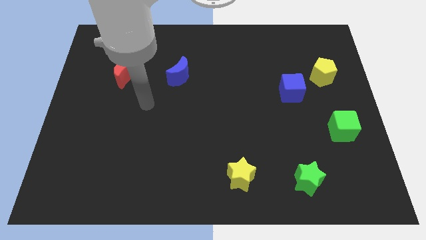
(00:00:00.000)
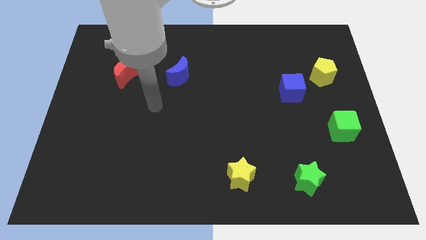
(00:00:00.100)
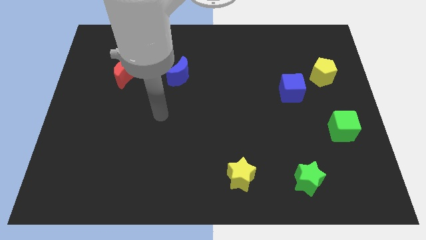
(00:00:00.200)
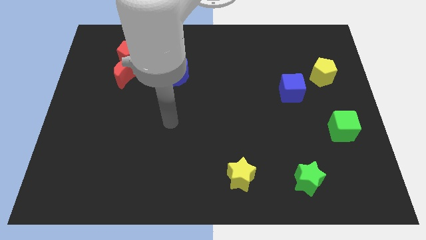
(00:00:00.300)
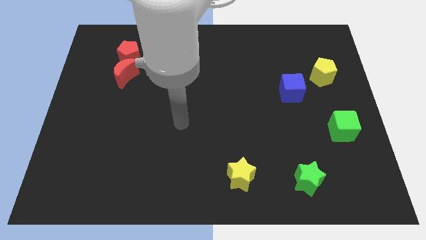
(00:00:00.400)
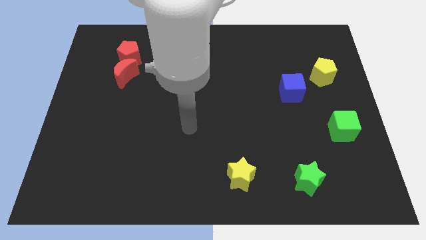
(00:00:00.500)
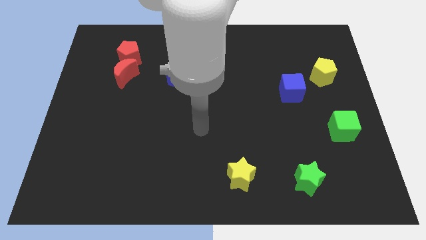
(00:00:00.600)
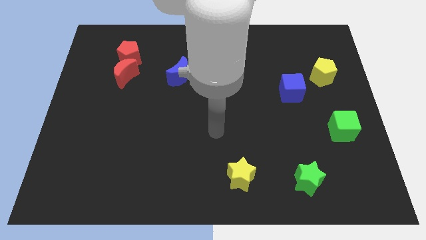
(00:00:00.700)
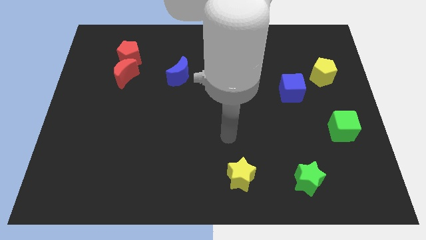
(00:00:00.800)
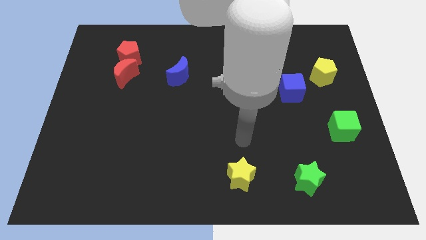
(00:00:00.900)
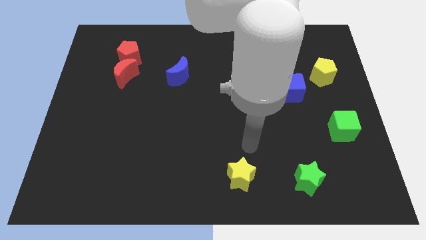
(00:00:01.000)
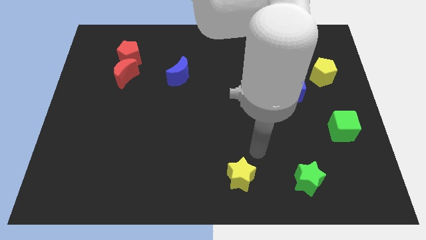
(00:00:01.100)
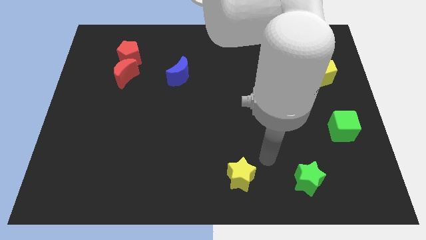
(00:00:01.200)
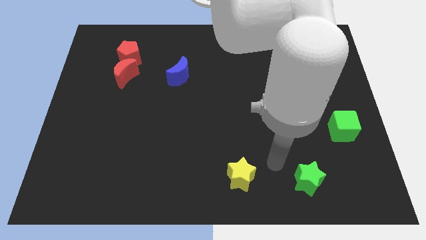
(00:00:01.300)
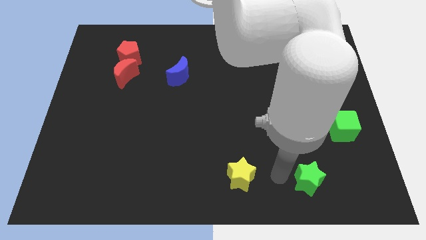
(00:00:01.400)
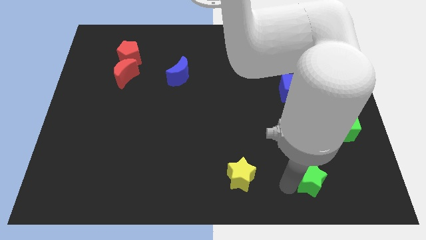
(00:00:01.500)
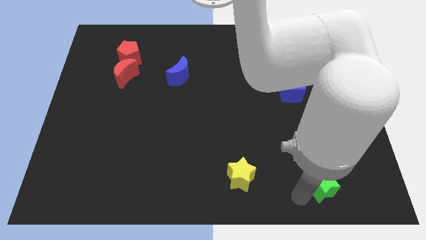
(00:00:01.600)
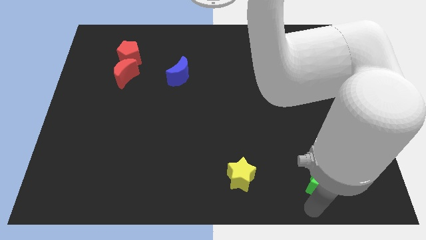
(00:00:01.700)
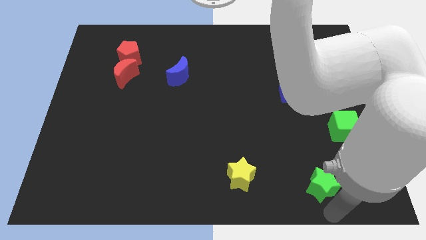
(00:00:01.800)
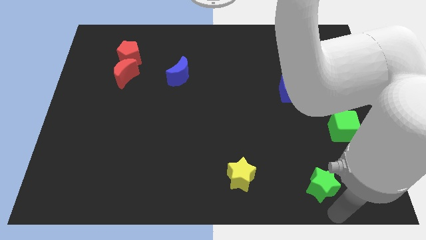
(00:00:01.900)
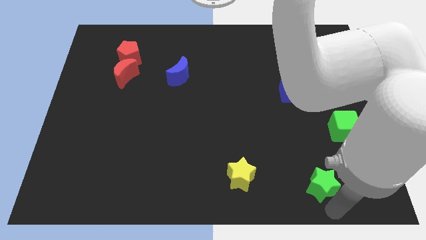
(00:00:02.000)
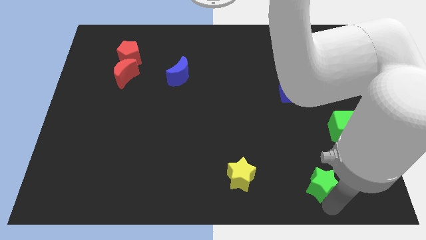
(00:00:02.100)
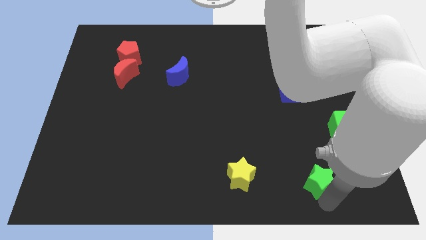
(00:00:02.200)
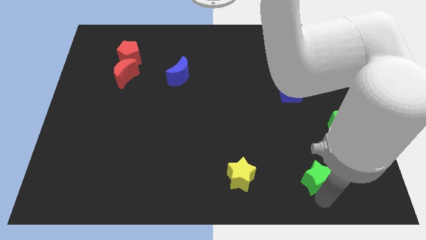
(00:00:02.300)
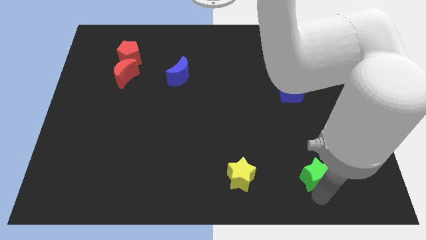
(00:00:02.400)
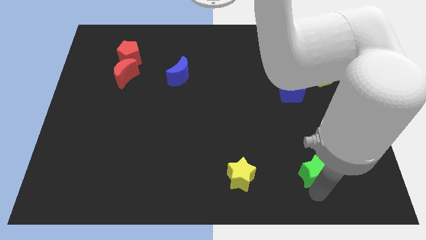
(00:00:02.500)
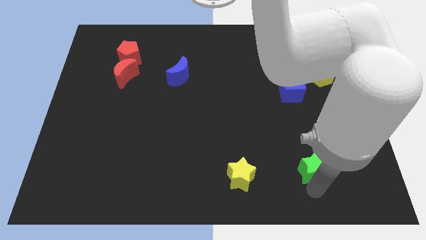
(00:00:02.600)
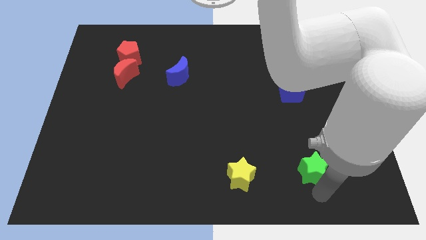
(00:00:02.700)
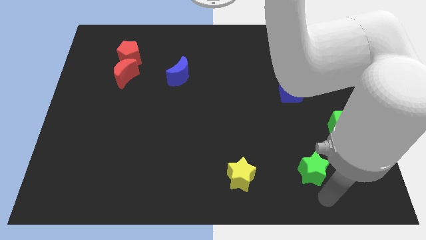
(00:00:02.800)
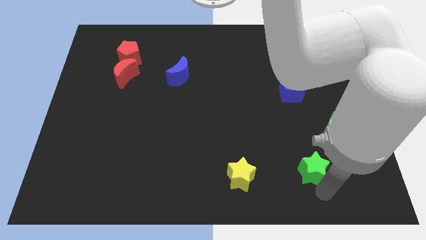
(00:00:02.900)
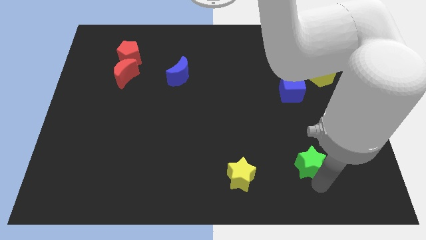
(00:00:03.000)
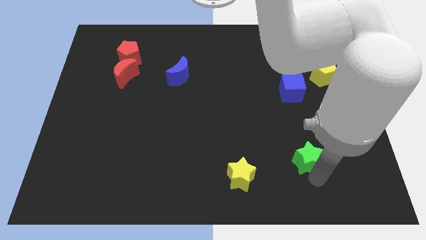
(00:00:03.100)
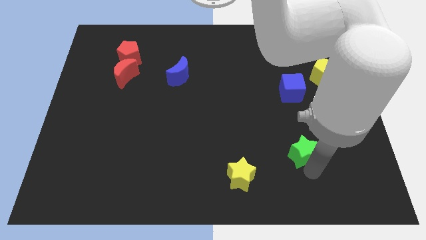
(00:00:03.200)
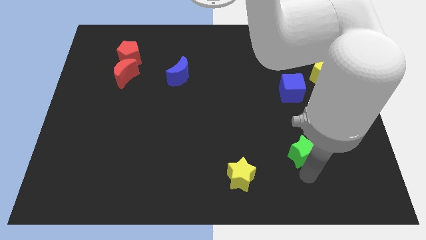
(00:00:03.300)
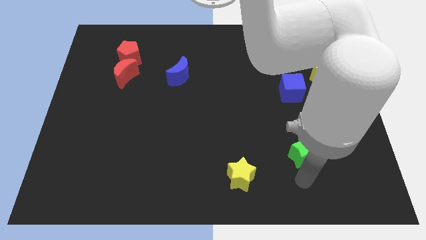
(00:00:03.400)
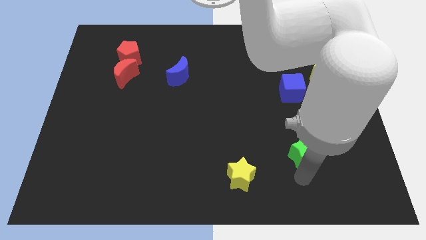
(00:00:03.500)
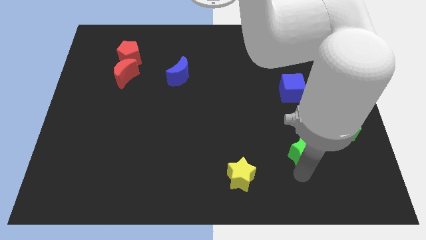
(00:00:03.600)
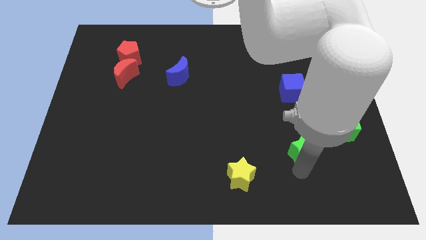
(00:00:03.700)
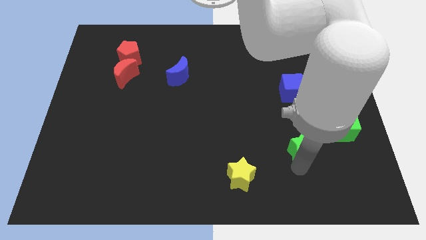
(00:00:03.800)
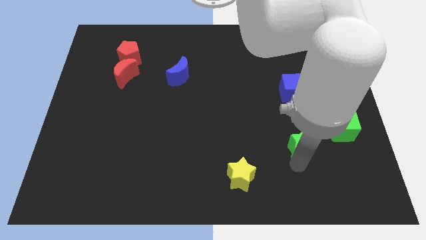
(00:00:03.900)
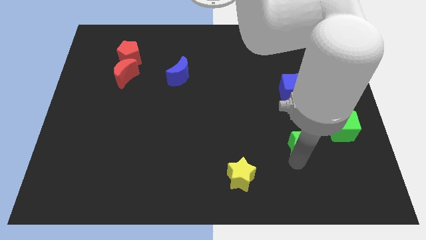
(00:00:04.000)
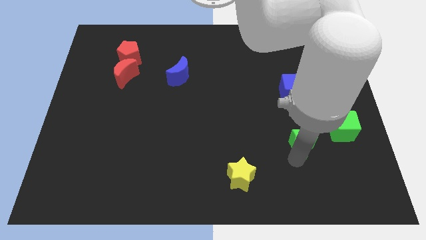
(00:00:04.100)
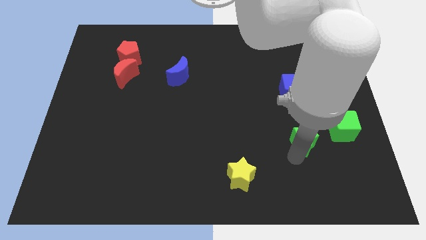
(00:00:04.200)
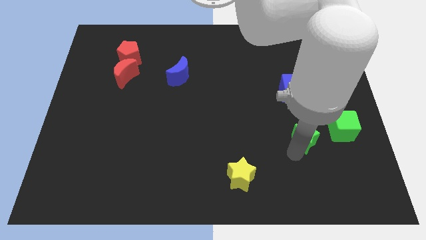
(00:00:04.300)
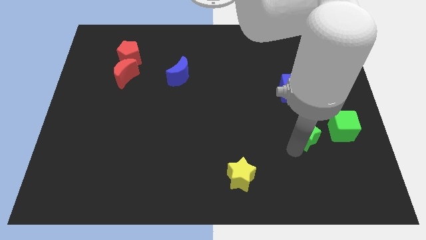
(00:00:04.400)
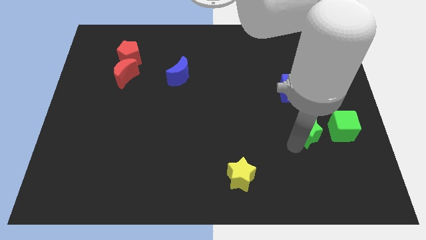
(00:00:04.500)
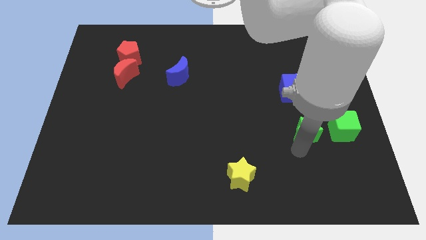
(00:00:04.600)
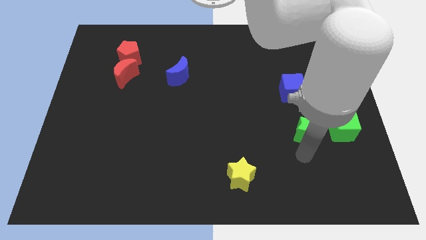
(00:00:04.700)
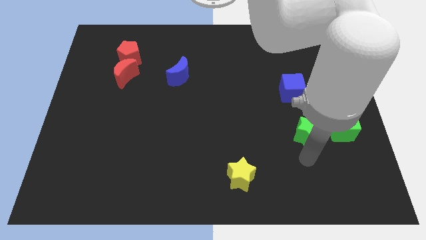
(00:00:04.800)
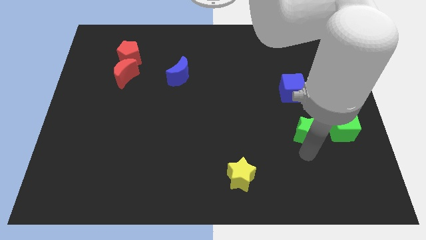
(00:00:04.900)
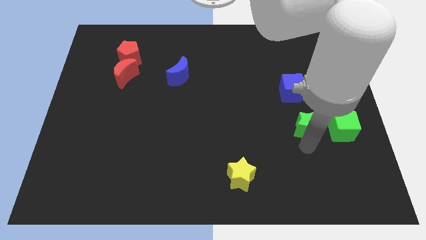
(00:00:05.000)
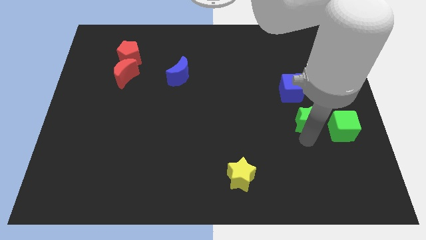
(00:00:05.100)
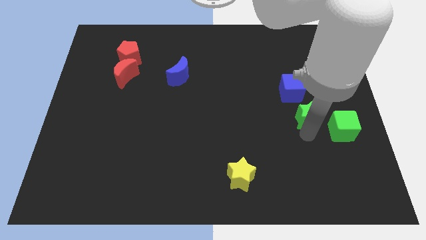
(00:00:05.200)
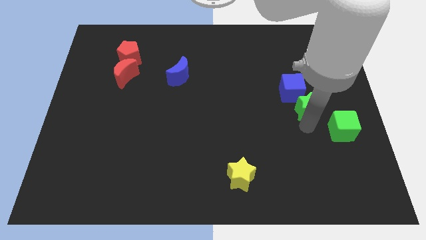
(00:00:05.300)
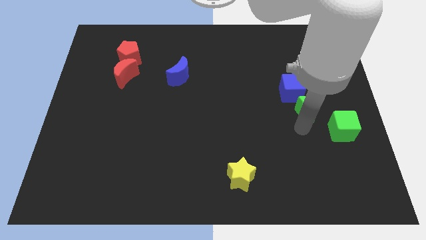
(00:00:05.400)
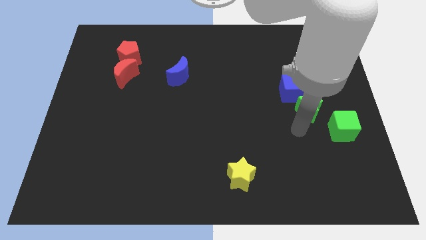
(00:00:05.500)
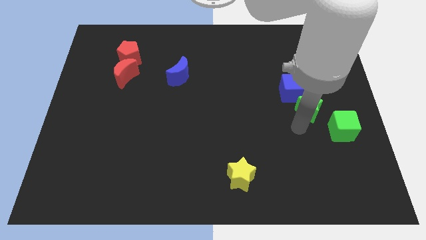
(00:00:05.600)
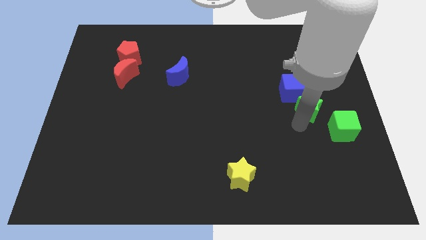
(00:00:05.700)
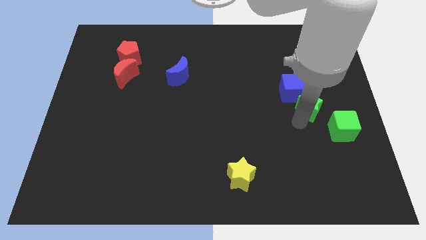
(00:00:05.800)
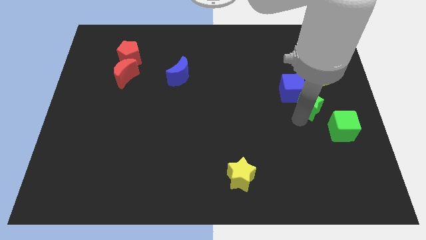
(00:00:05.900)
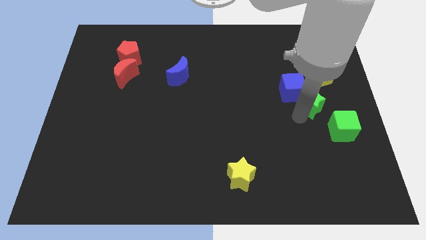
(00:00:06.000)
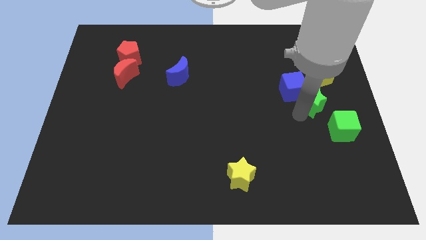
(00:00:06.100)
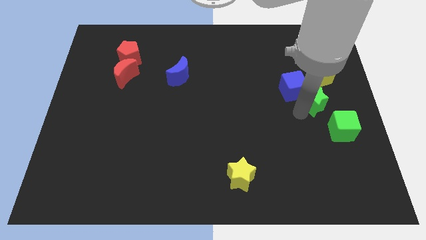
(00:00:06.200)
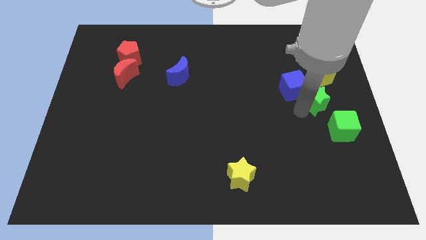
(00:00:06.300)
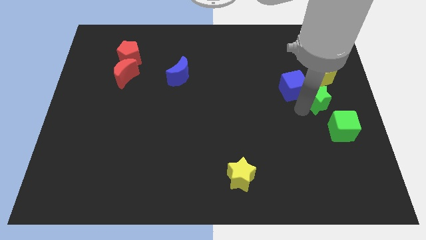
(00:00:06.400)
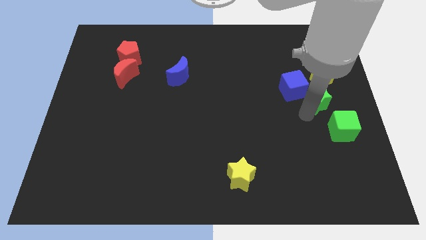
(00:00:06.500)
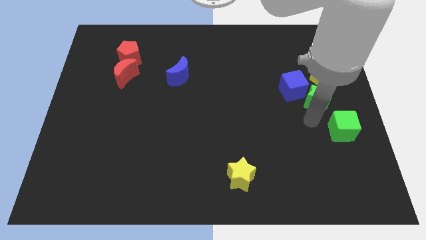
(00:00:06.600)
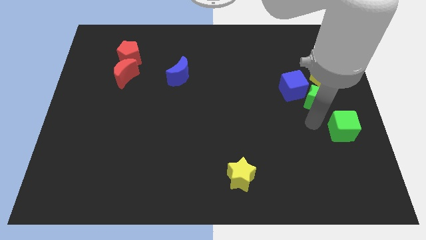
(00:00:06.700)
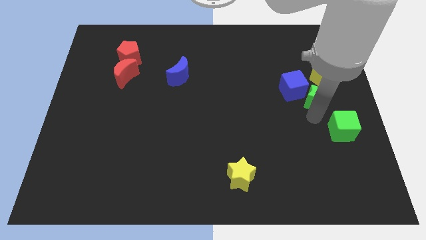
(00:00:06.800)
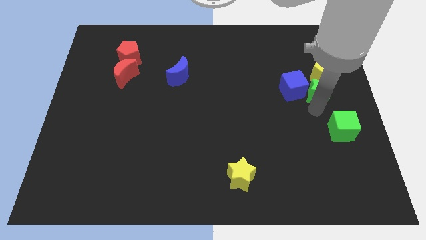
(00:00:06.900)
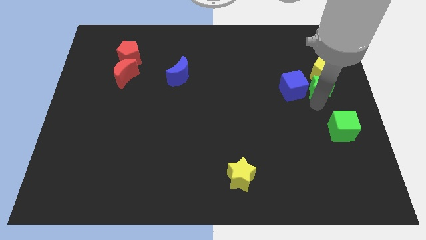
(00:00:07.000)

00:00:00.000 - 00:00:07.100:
push the green star close to the yellow pentagon
